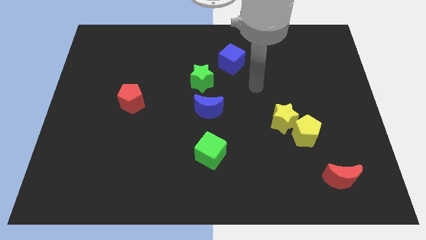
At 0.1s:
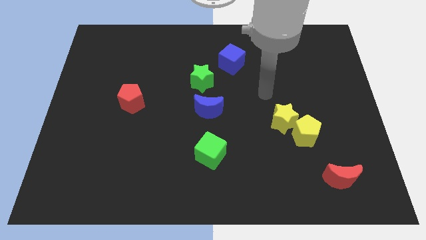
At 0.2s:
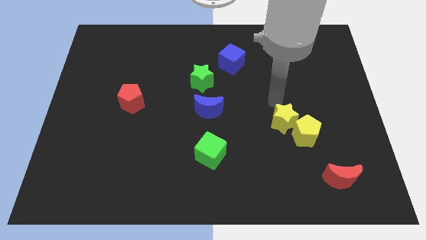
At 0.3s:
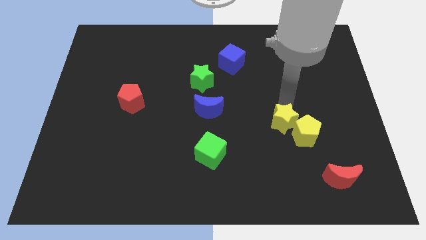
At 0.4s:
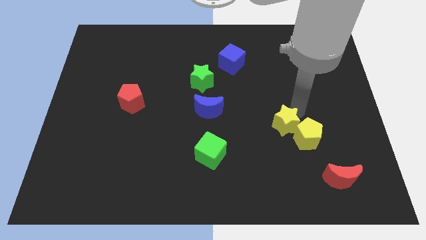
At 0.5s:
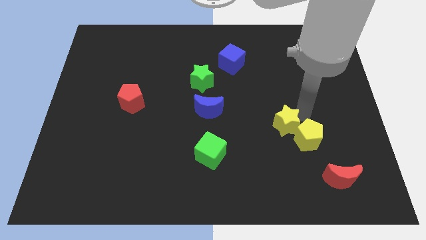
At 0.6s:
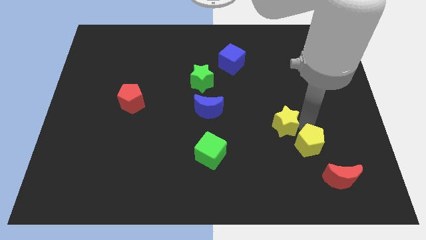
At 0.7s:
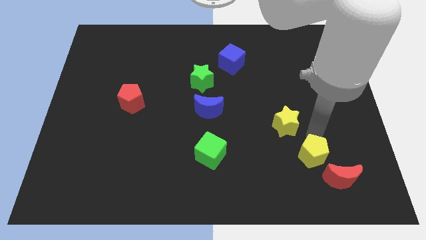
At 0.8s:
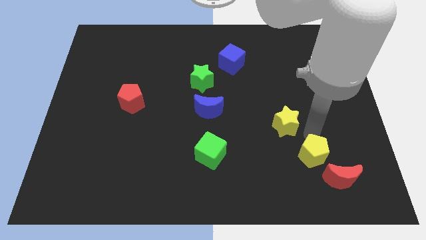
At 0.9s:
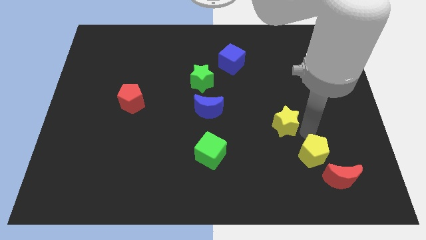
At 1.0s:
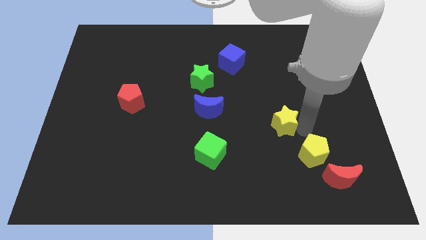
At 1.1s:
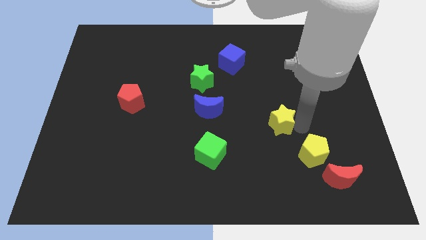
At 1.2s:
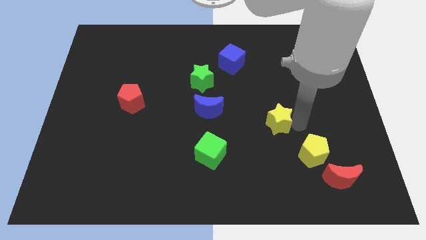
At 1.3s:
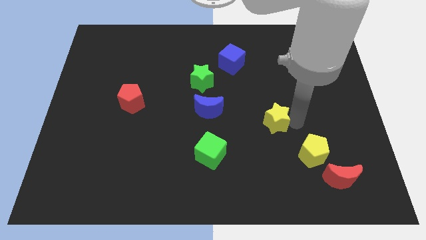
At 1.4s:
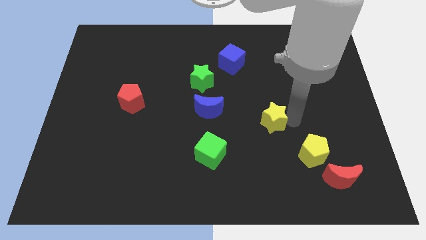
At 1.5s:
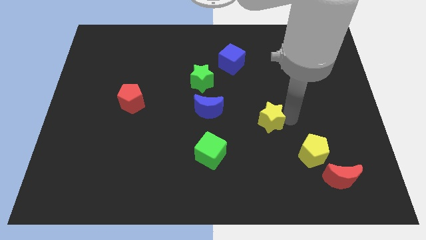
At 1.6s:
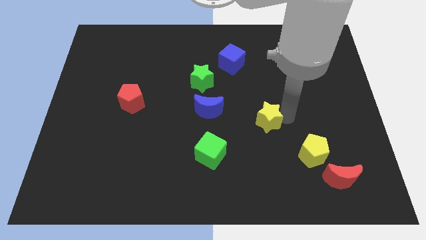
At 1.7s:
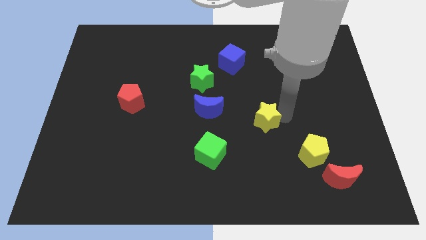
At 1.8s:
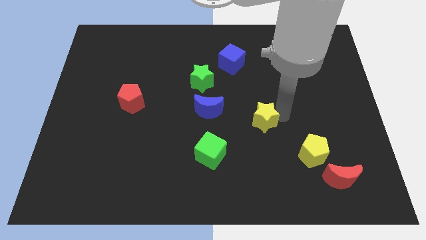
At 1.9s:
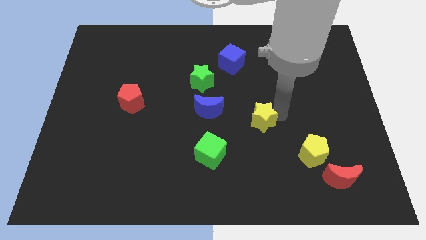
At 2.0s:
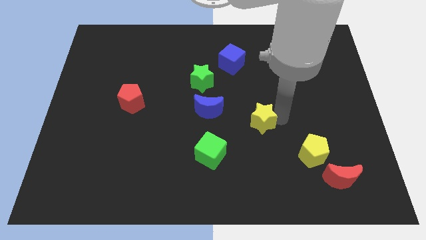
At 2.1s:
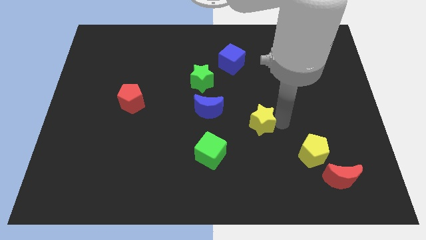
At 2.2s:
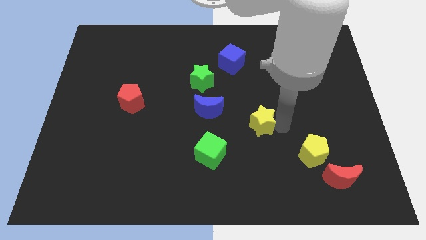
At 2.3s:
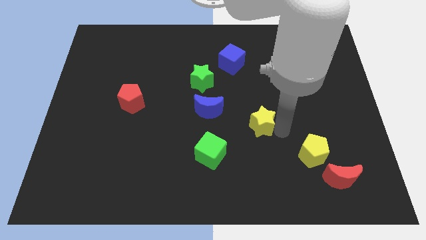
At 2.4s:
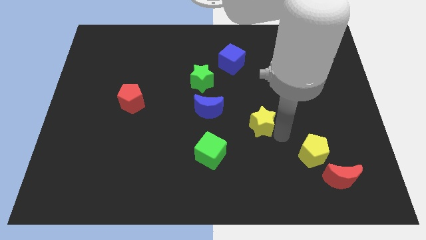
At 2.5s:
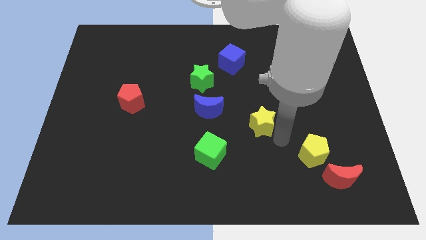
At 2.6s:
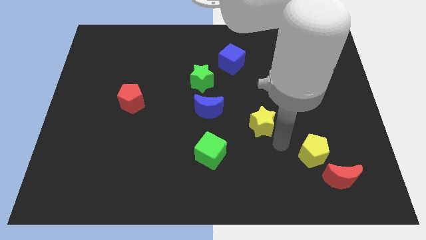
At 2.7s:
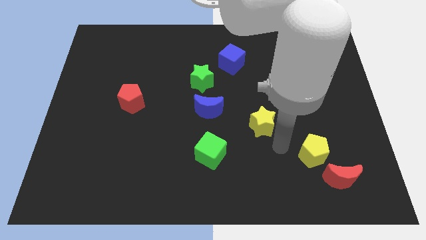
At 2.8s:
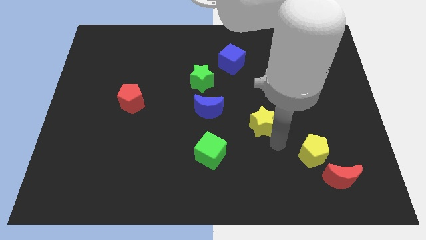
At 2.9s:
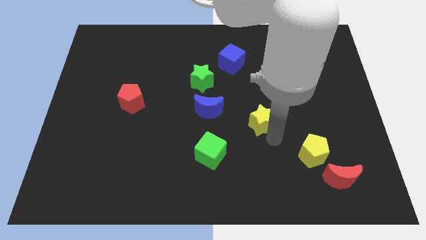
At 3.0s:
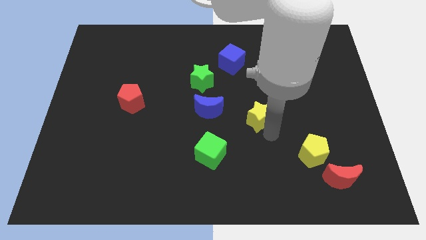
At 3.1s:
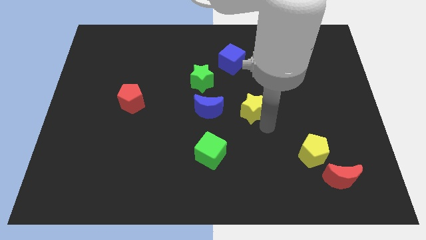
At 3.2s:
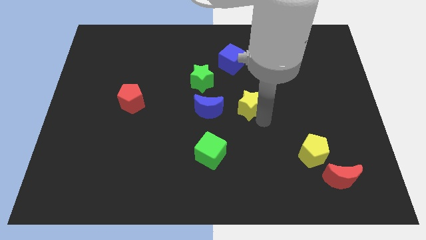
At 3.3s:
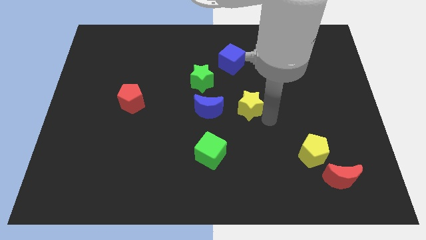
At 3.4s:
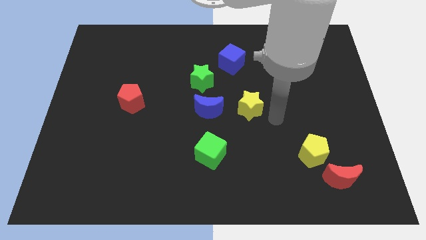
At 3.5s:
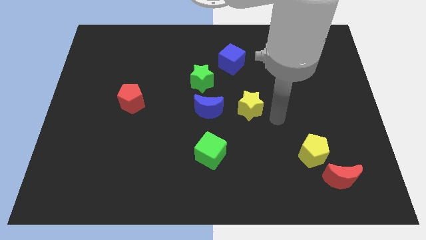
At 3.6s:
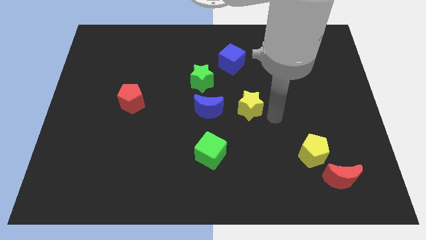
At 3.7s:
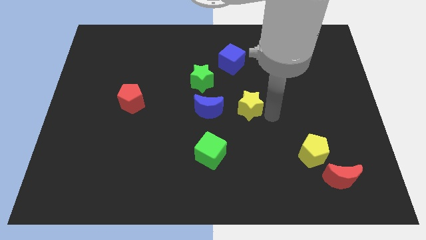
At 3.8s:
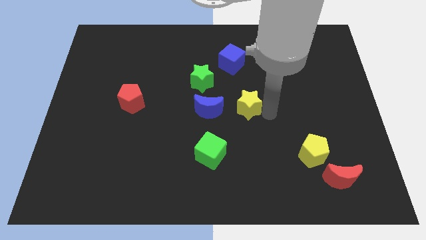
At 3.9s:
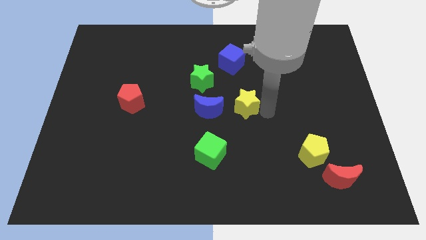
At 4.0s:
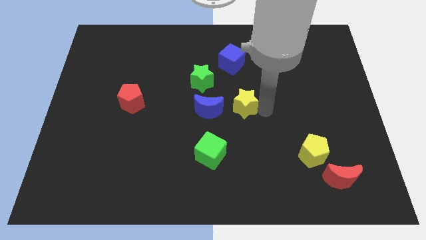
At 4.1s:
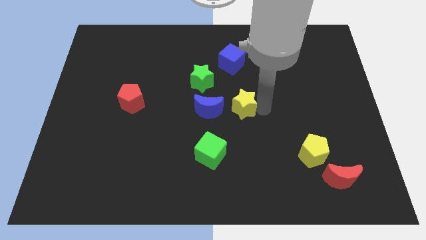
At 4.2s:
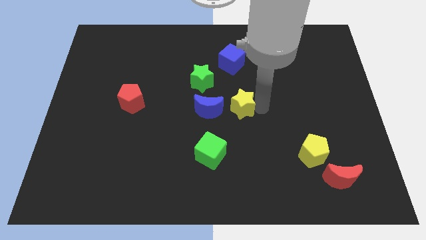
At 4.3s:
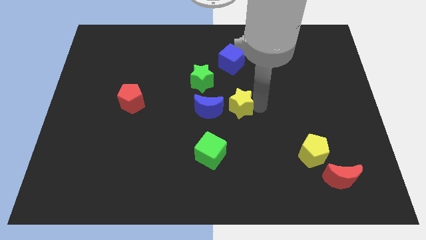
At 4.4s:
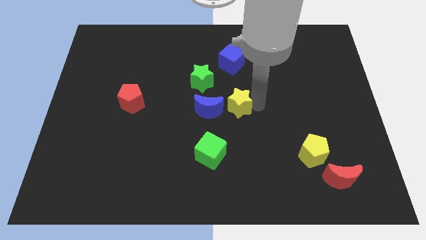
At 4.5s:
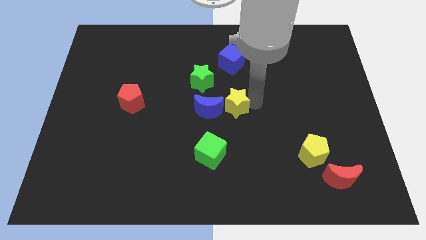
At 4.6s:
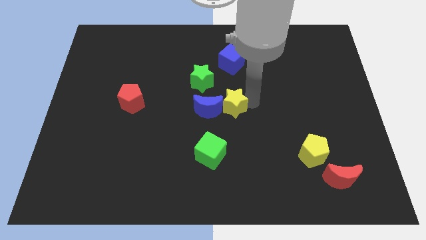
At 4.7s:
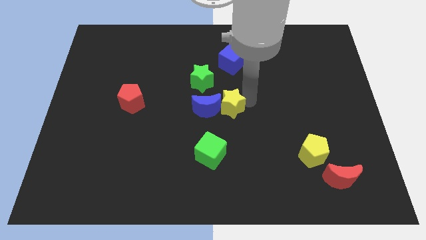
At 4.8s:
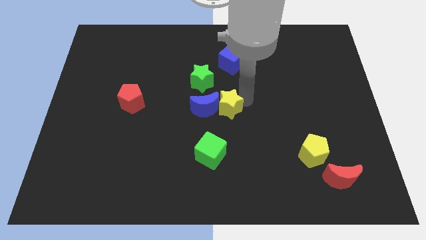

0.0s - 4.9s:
push the yellow star to the top of the green cube

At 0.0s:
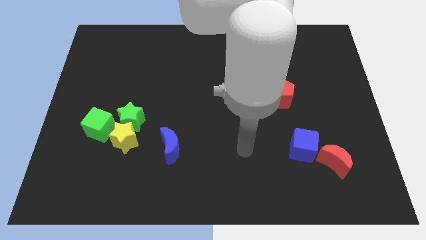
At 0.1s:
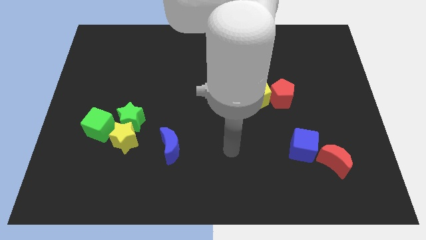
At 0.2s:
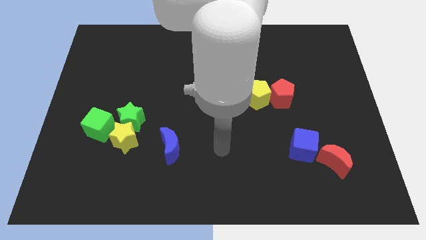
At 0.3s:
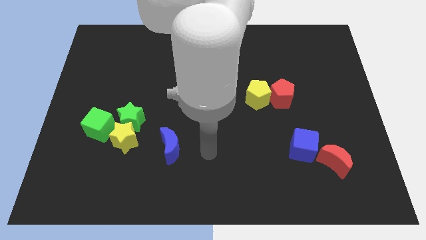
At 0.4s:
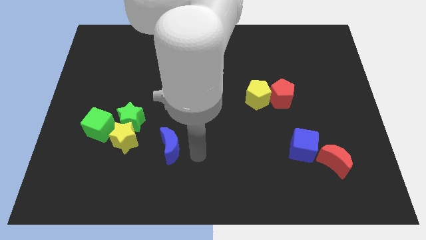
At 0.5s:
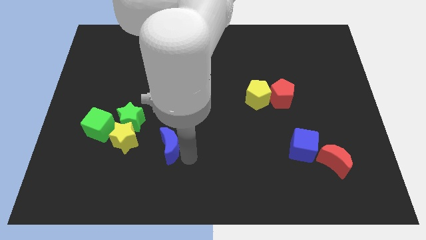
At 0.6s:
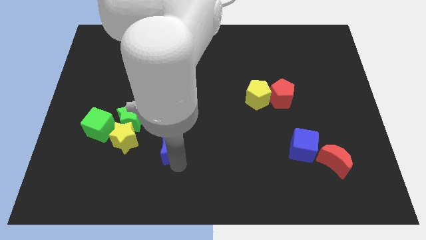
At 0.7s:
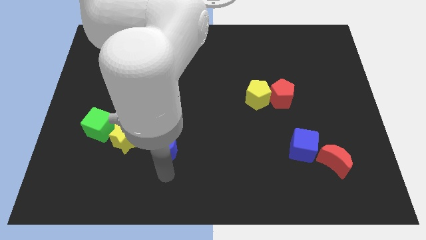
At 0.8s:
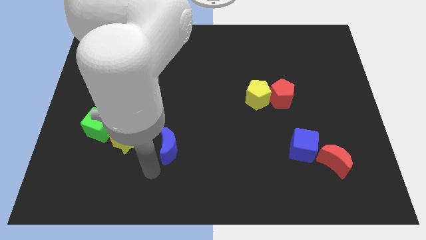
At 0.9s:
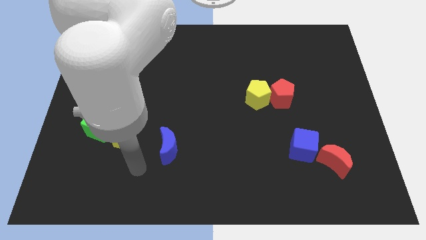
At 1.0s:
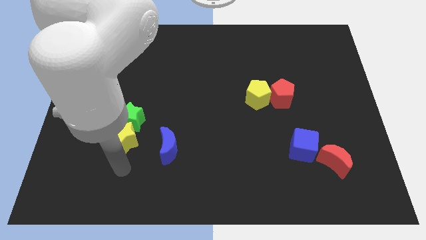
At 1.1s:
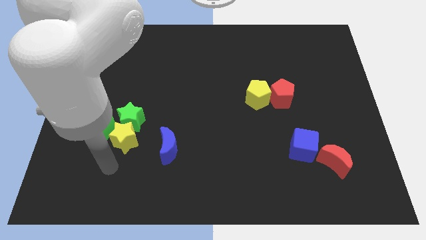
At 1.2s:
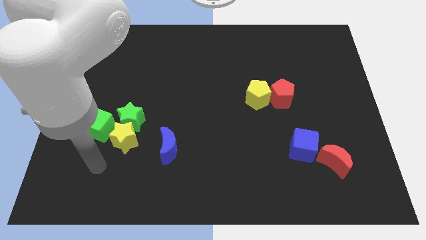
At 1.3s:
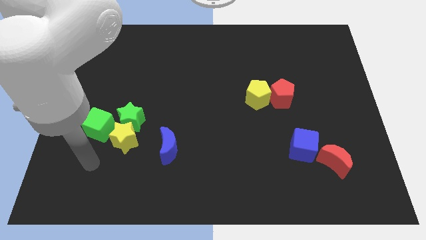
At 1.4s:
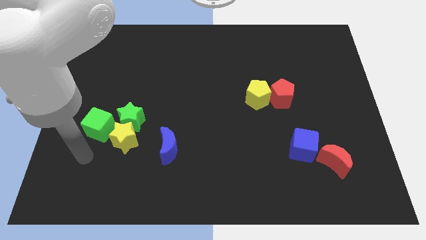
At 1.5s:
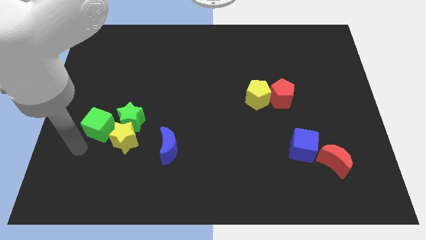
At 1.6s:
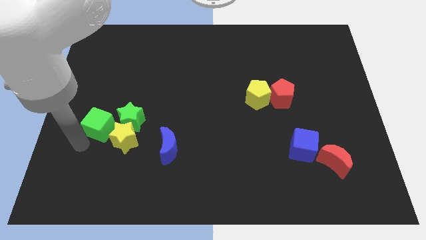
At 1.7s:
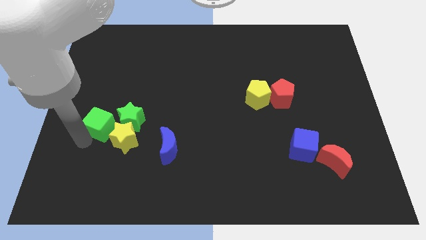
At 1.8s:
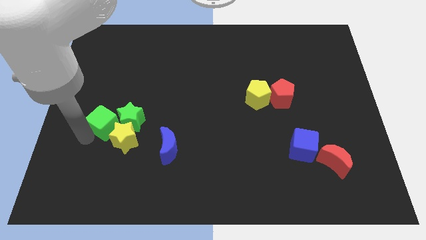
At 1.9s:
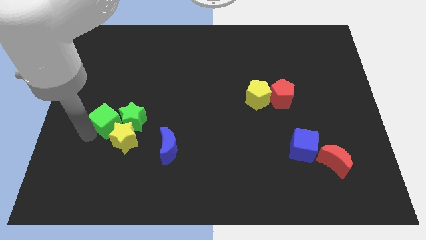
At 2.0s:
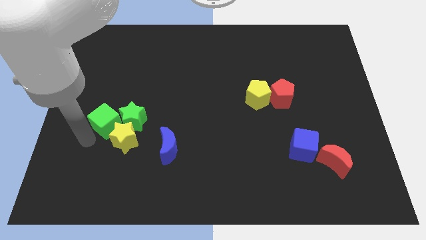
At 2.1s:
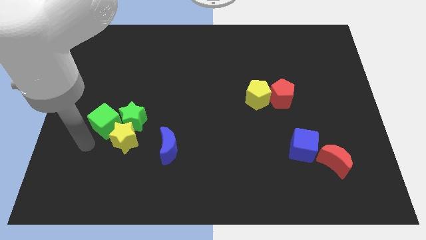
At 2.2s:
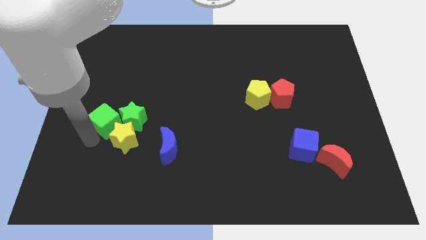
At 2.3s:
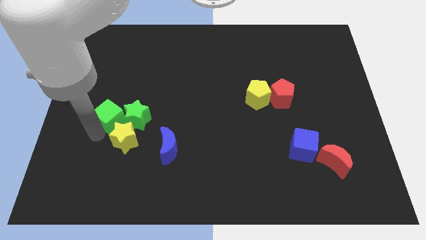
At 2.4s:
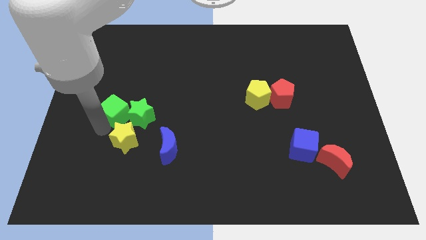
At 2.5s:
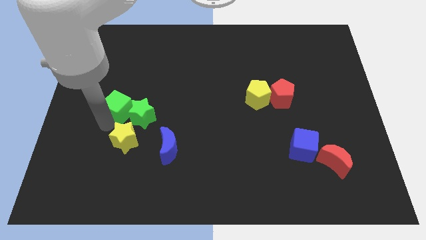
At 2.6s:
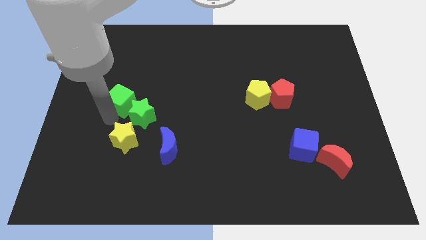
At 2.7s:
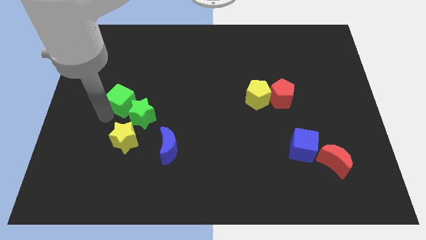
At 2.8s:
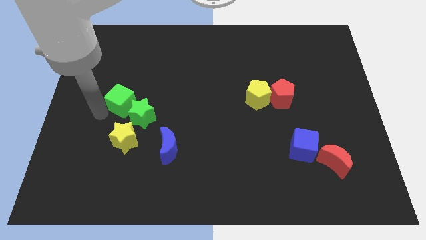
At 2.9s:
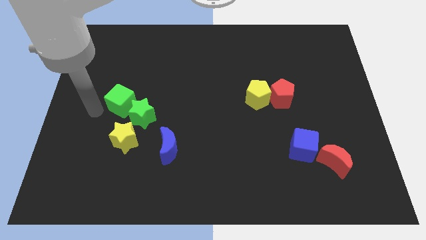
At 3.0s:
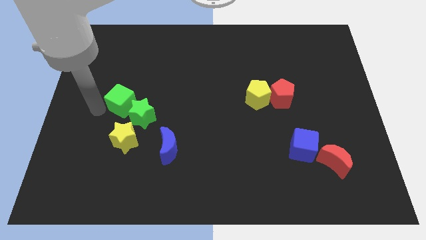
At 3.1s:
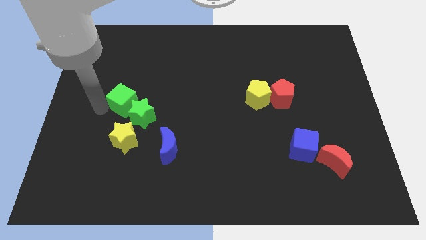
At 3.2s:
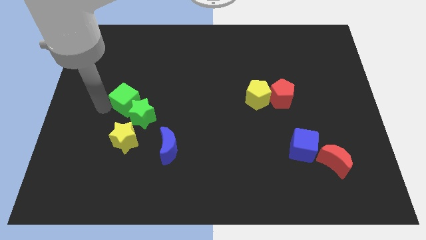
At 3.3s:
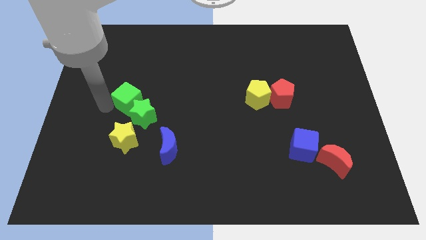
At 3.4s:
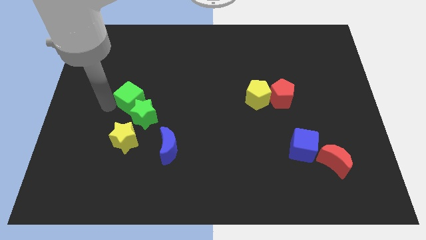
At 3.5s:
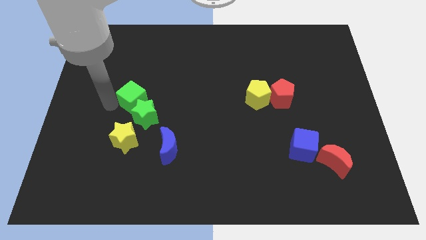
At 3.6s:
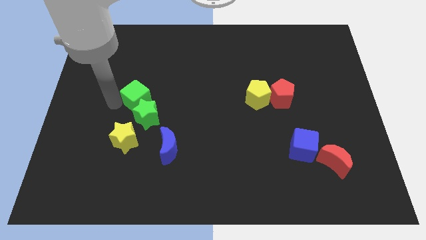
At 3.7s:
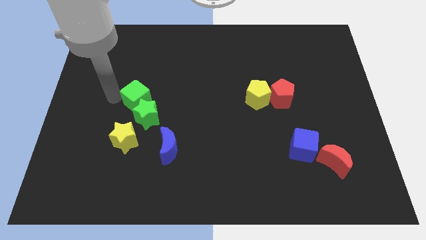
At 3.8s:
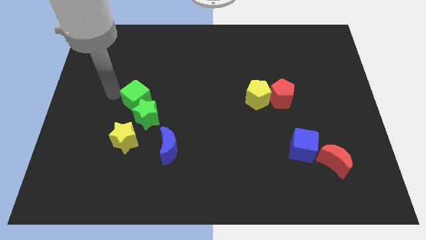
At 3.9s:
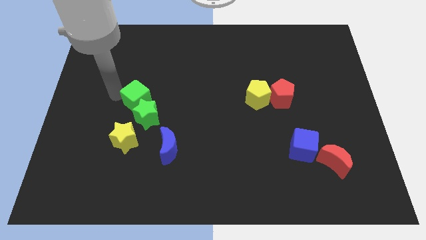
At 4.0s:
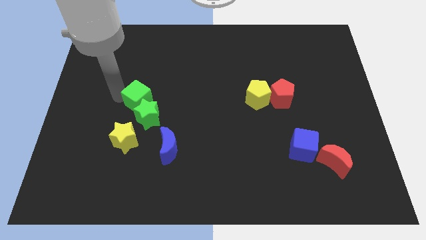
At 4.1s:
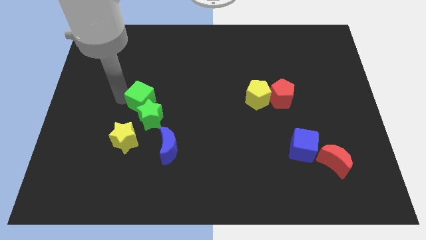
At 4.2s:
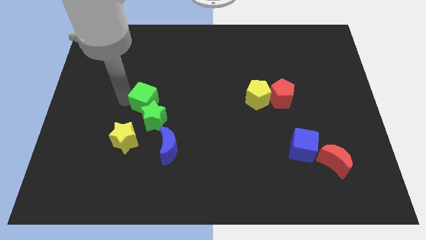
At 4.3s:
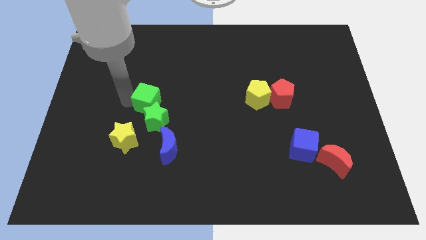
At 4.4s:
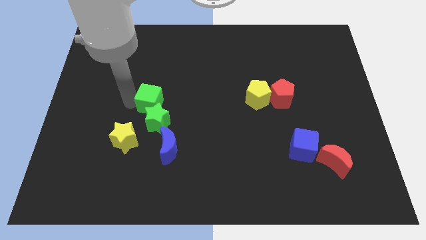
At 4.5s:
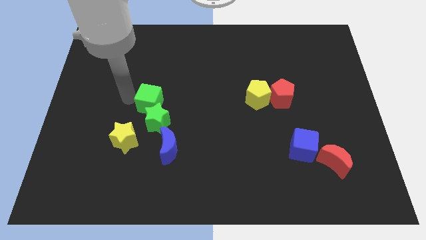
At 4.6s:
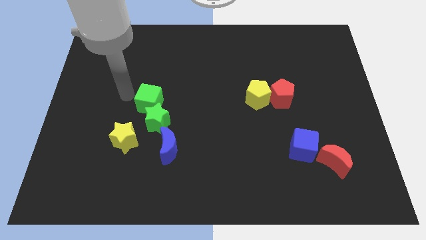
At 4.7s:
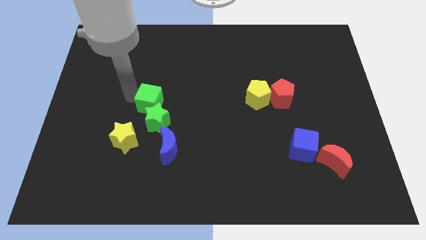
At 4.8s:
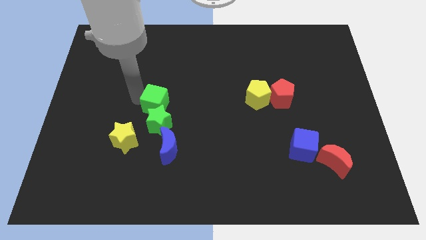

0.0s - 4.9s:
push the green cube to the top side of the blue moon
